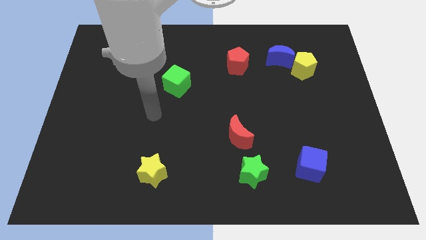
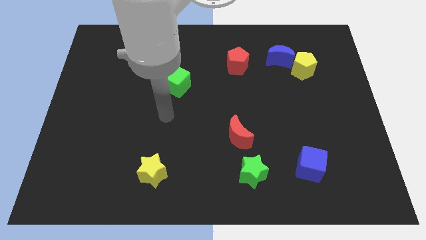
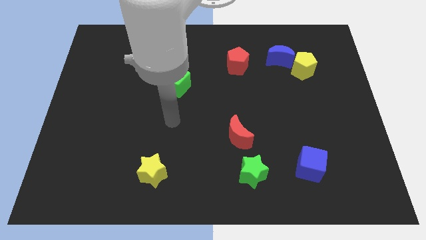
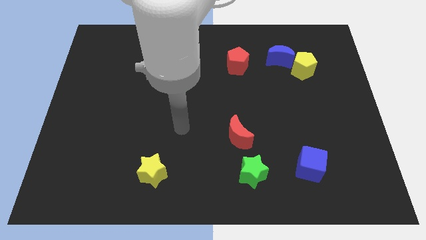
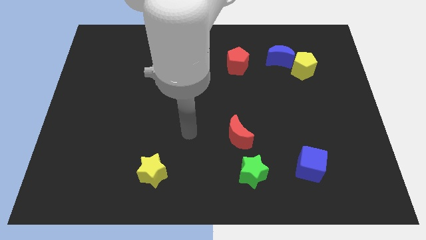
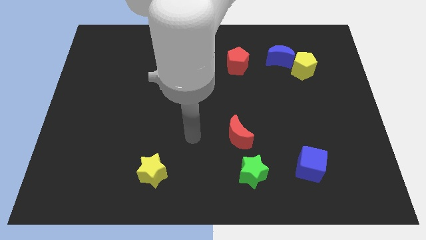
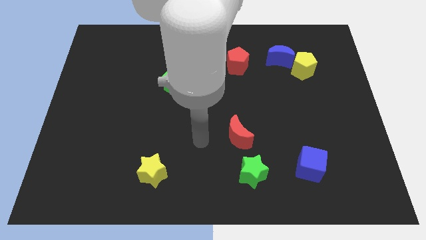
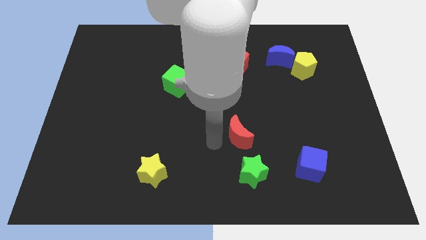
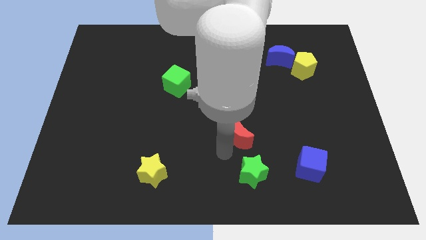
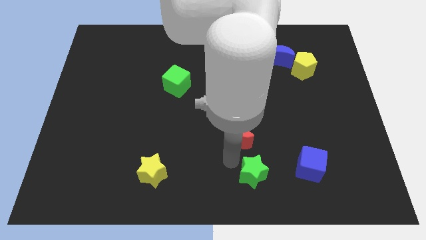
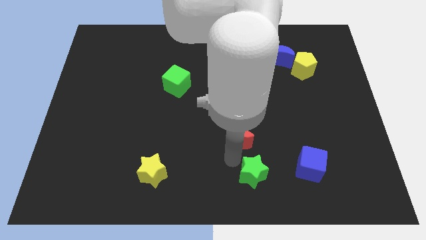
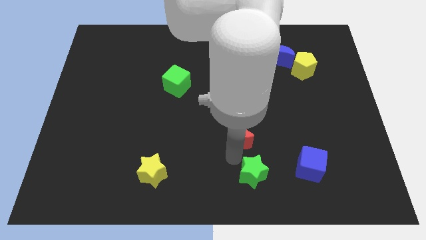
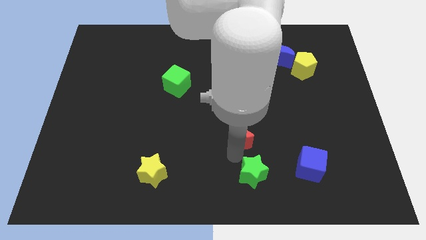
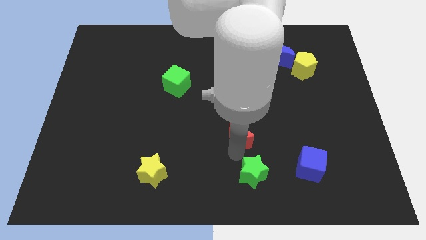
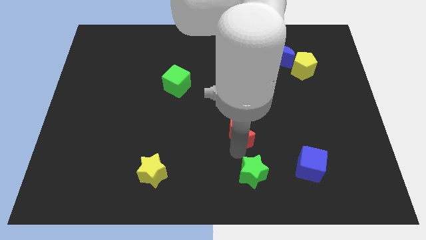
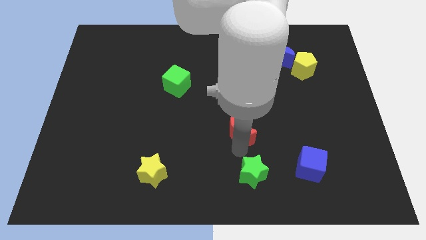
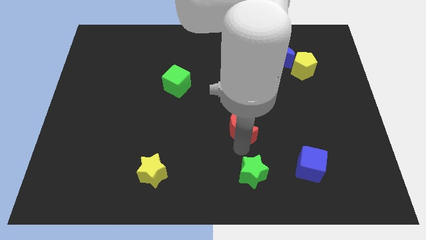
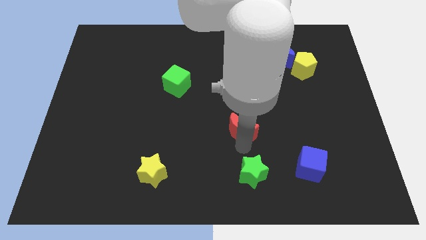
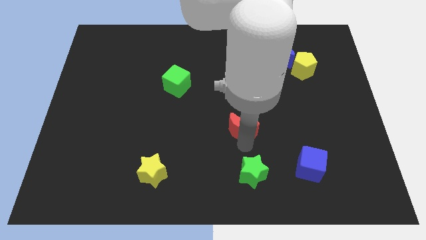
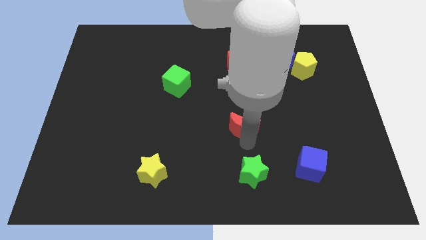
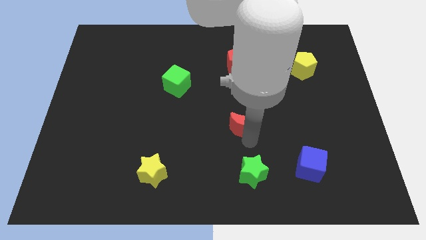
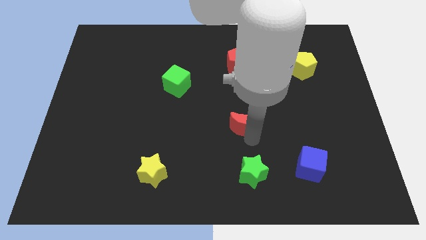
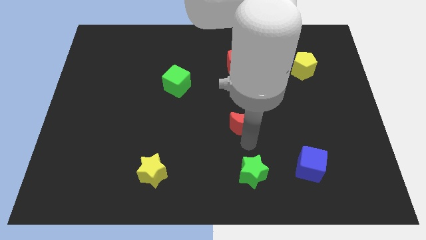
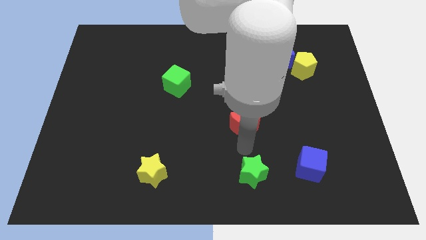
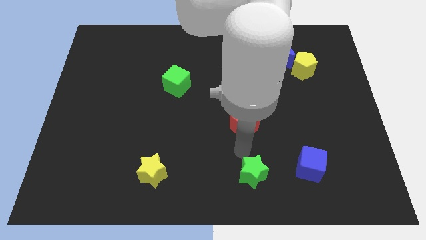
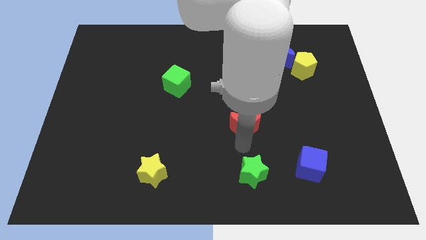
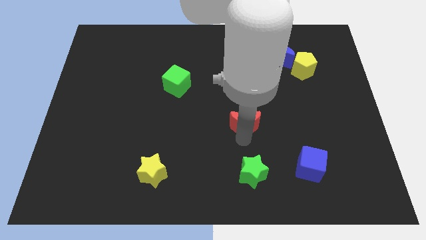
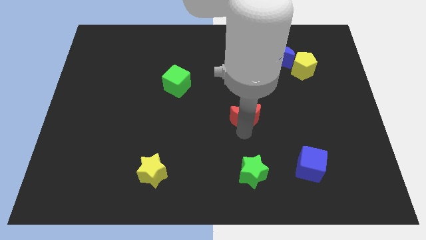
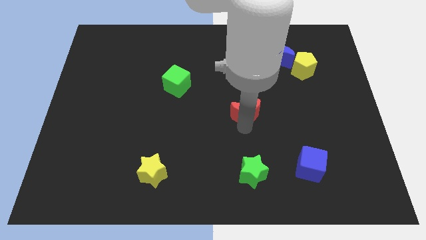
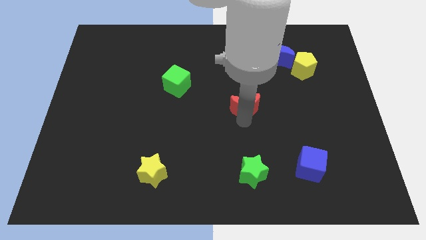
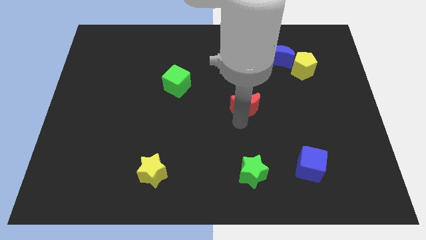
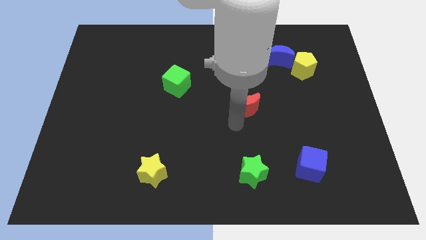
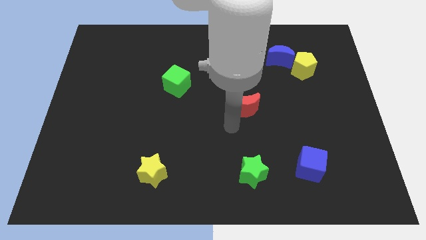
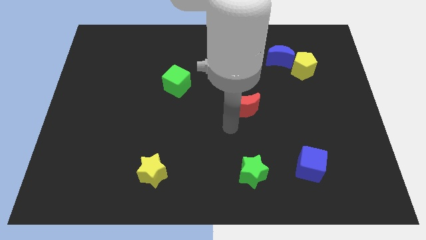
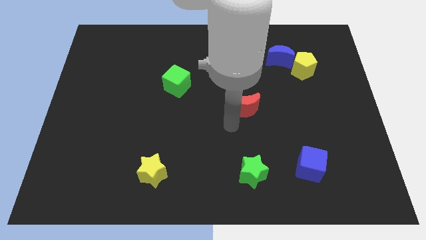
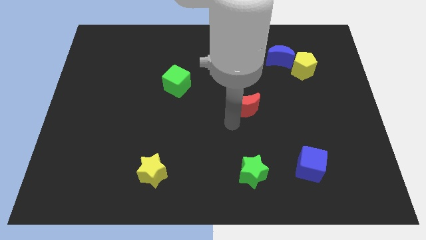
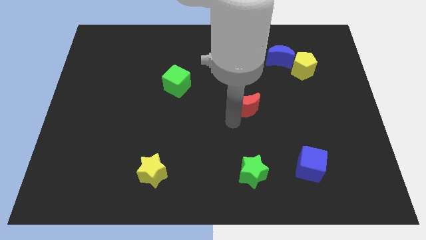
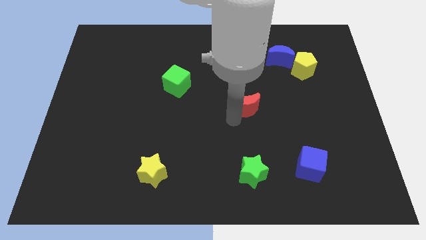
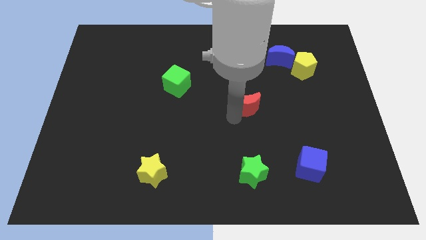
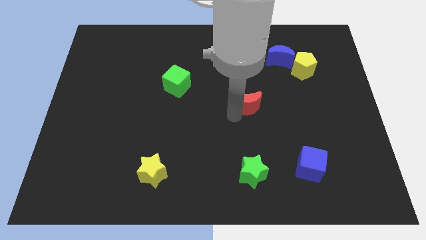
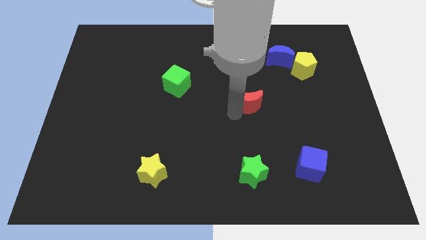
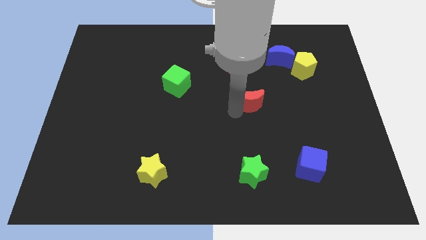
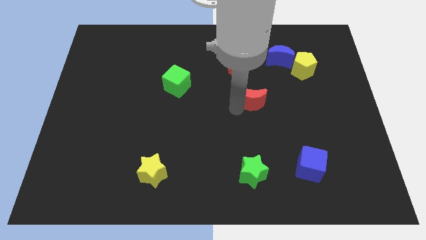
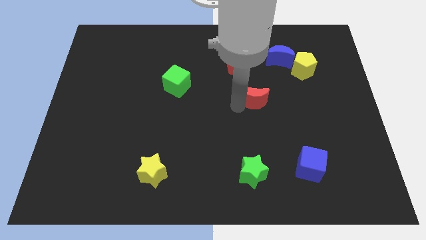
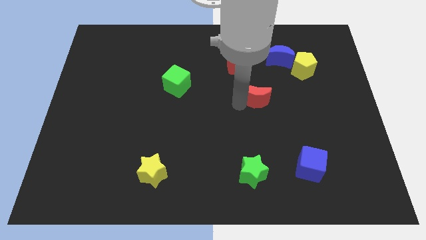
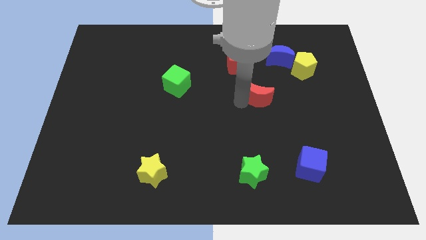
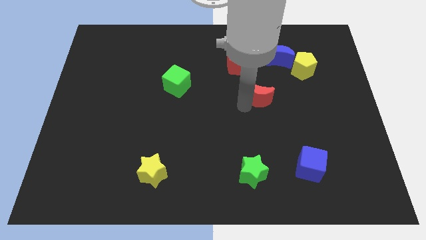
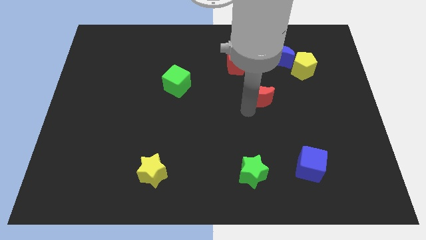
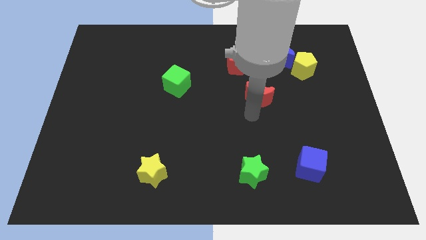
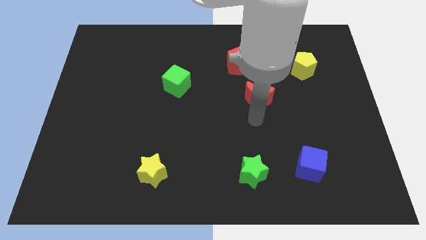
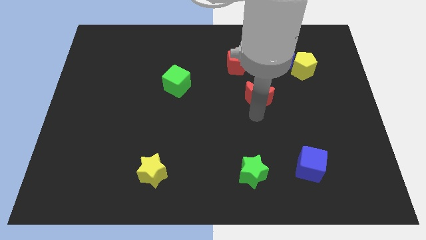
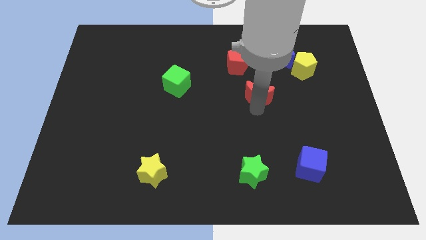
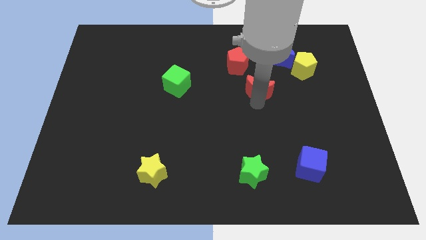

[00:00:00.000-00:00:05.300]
put the red moon diagonally down and to the right of the red pentagon
